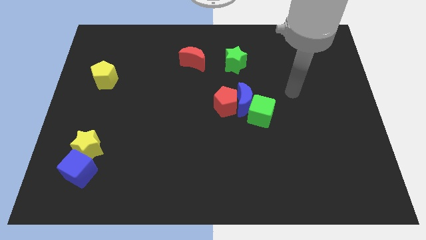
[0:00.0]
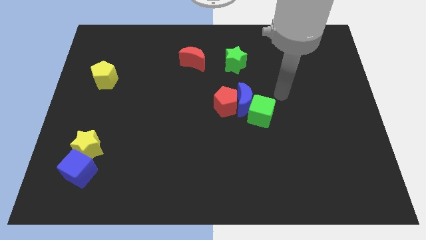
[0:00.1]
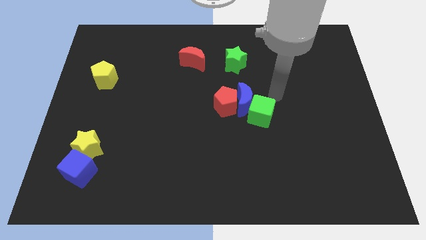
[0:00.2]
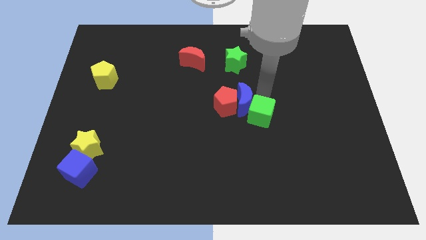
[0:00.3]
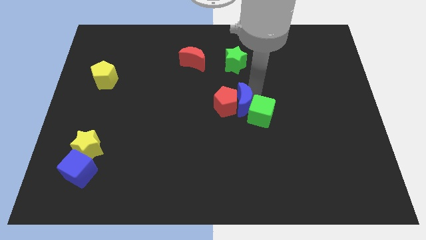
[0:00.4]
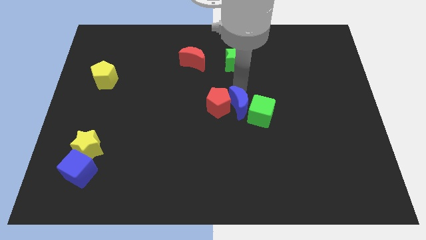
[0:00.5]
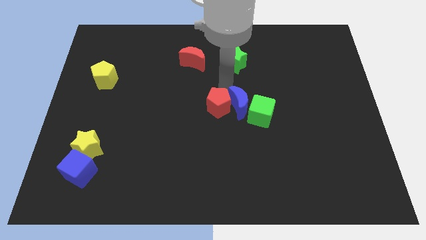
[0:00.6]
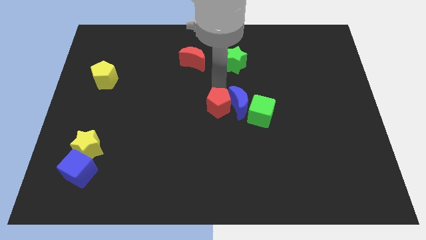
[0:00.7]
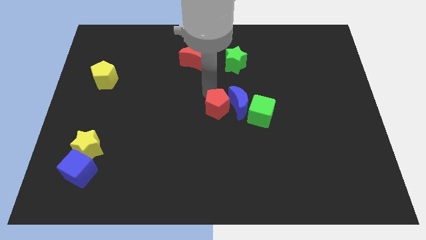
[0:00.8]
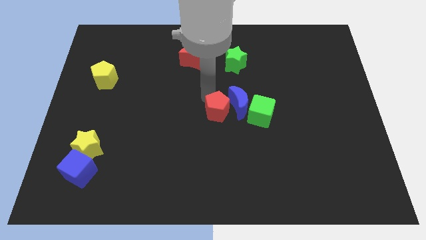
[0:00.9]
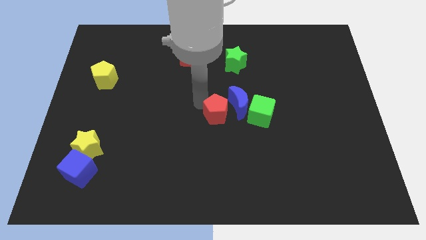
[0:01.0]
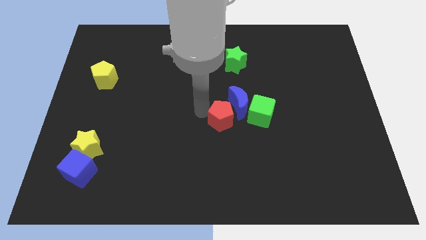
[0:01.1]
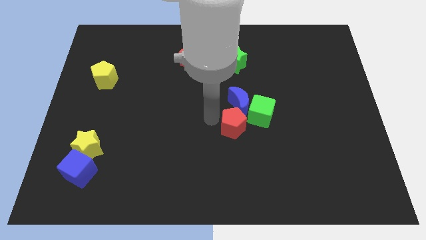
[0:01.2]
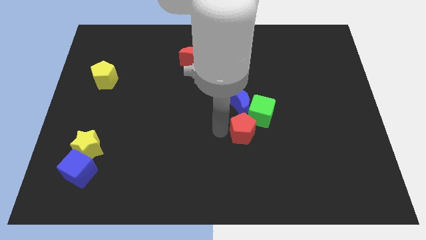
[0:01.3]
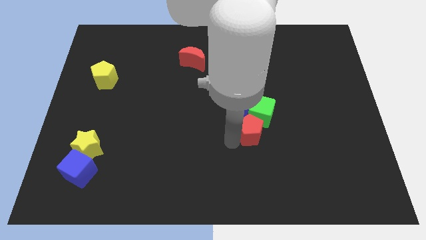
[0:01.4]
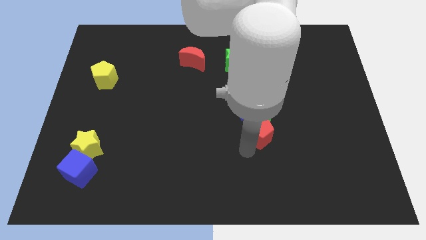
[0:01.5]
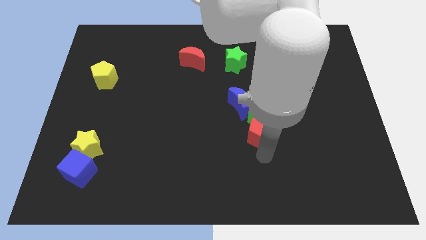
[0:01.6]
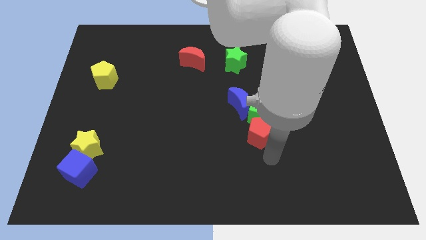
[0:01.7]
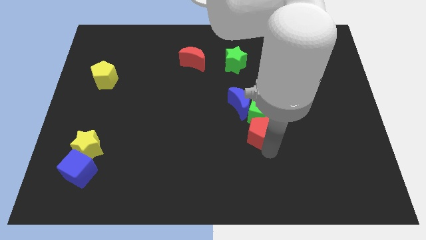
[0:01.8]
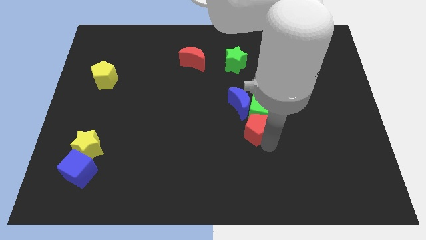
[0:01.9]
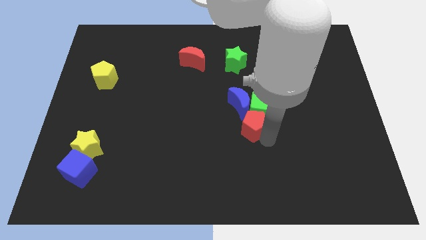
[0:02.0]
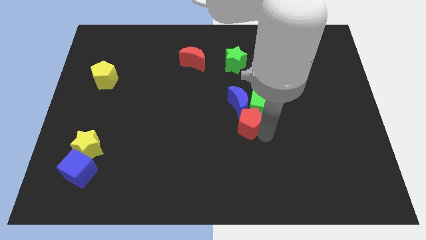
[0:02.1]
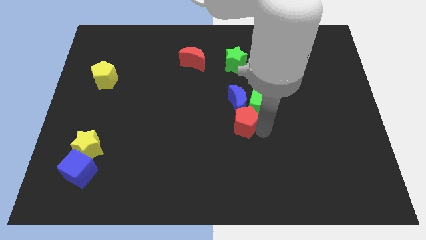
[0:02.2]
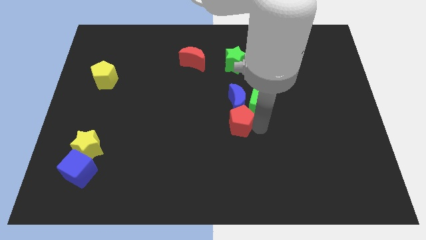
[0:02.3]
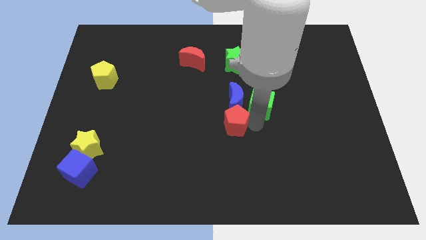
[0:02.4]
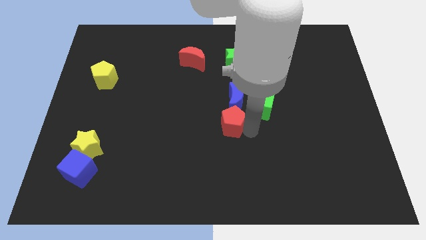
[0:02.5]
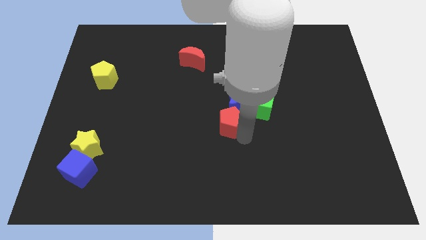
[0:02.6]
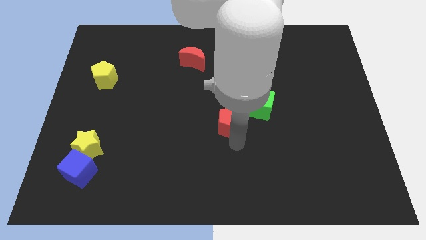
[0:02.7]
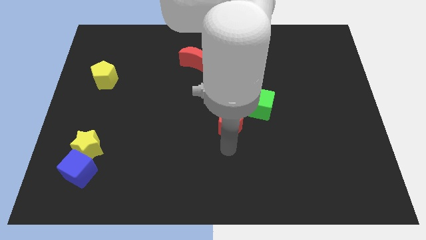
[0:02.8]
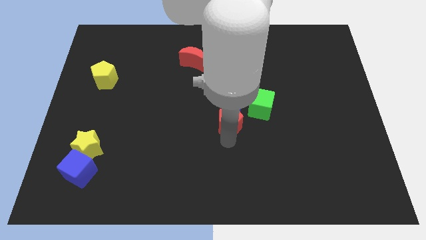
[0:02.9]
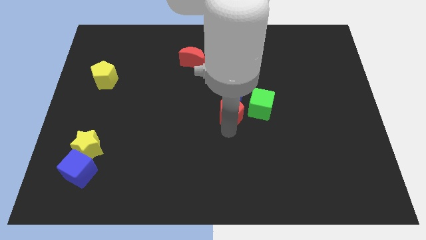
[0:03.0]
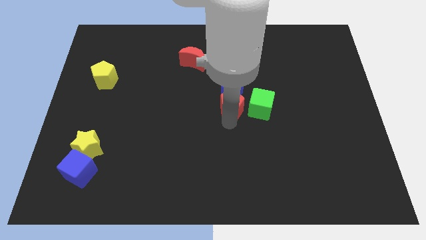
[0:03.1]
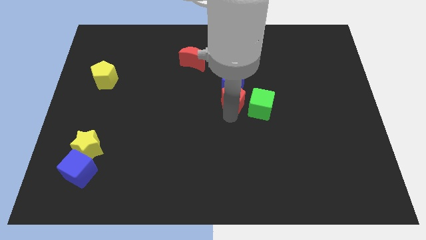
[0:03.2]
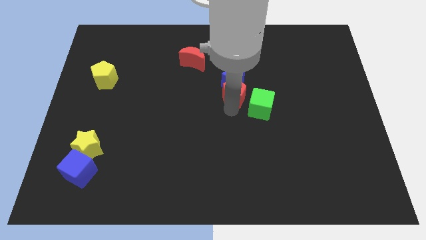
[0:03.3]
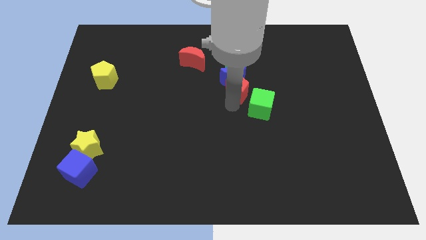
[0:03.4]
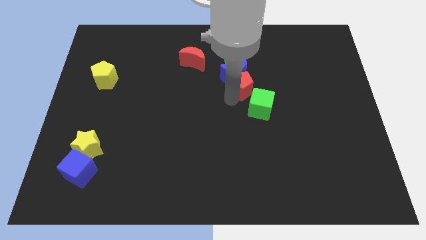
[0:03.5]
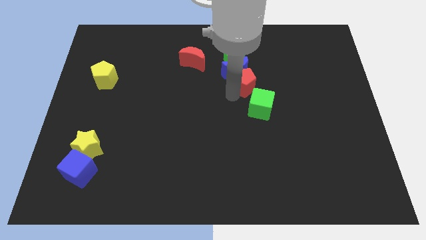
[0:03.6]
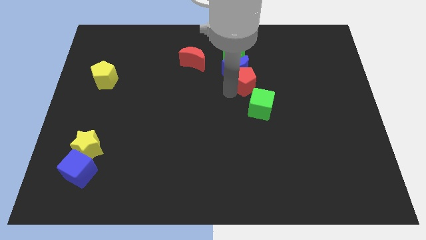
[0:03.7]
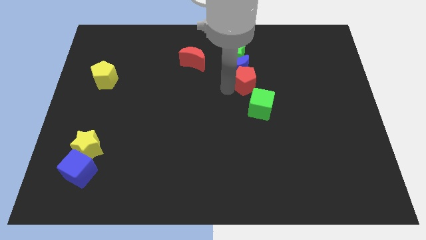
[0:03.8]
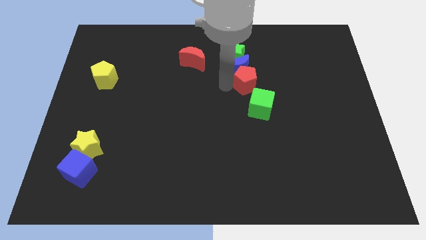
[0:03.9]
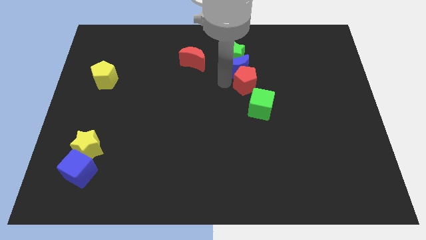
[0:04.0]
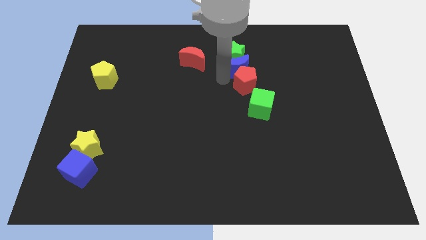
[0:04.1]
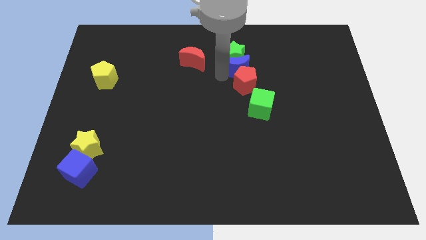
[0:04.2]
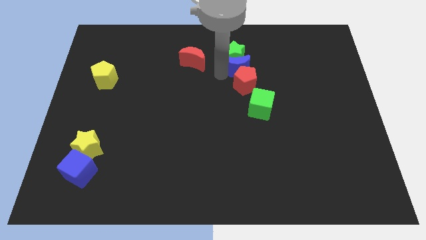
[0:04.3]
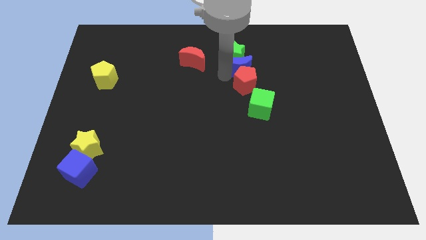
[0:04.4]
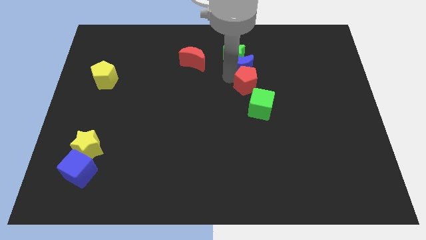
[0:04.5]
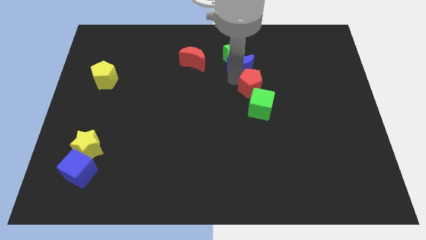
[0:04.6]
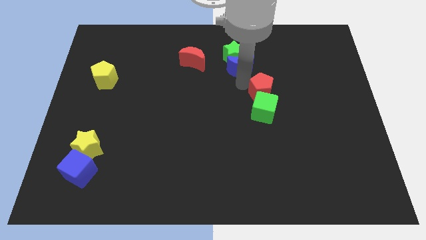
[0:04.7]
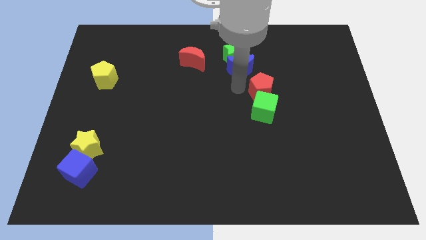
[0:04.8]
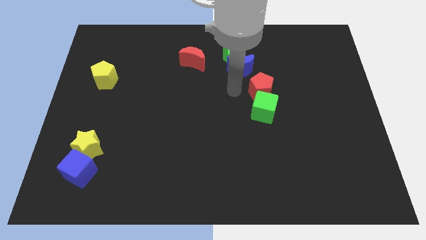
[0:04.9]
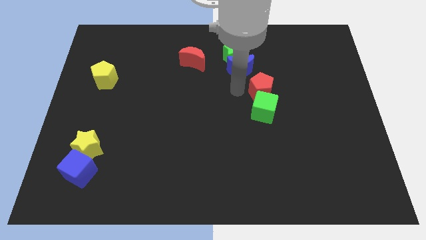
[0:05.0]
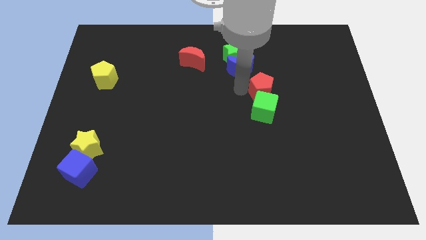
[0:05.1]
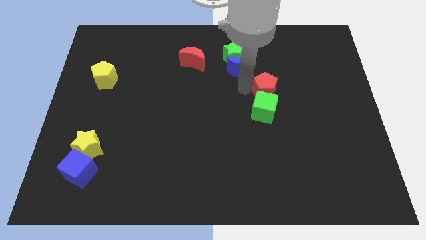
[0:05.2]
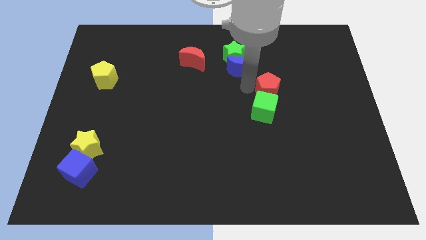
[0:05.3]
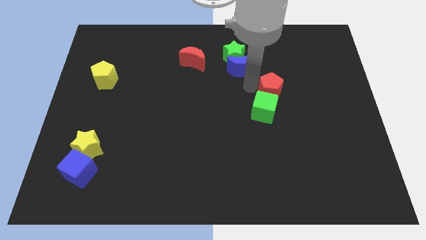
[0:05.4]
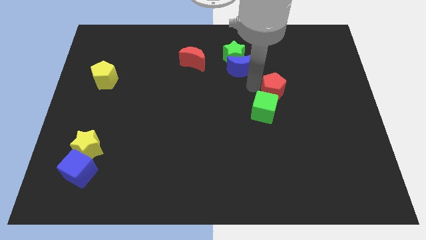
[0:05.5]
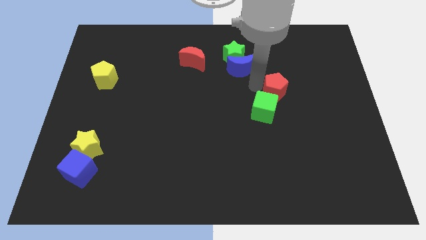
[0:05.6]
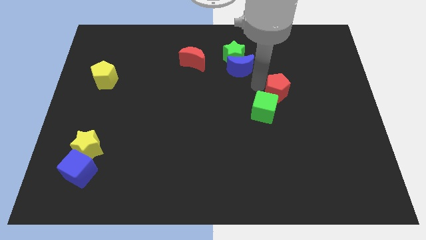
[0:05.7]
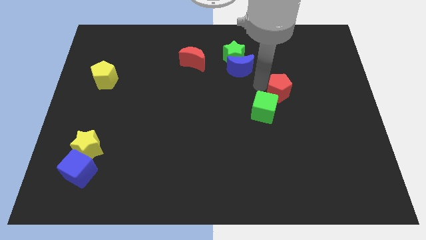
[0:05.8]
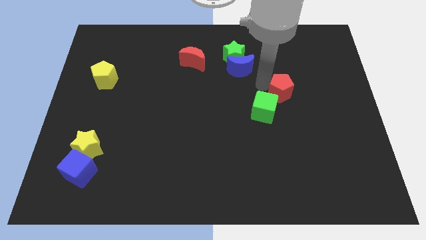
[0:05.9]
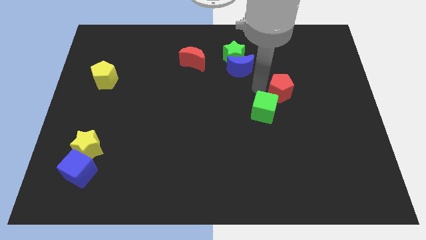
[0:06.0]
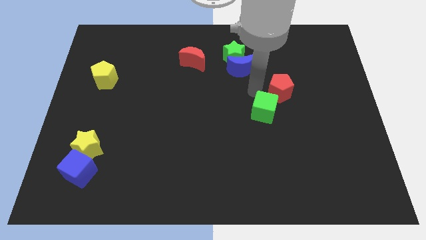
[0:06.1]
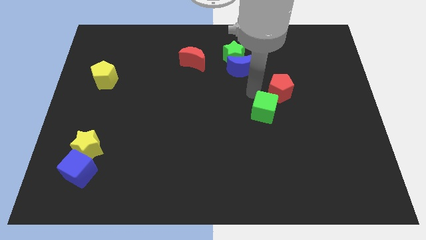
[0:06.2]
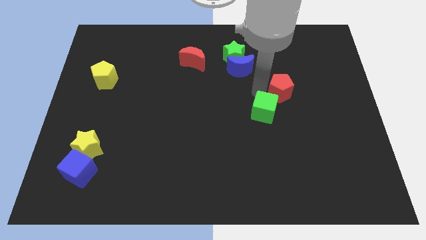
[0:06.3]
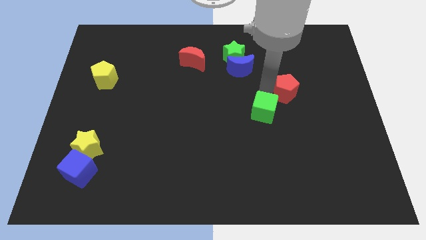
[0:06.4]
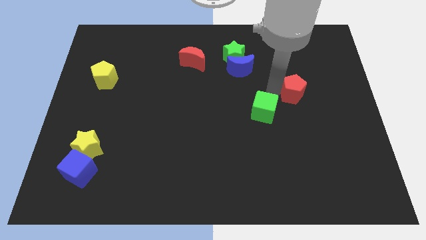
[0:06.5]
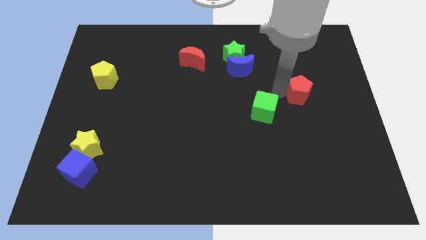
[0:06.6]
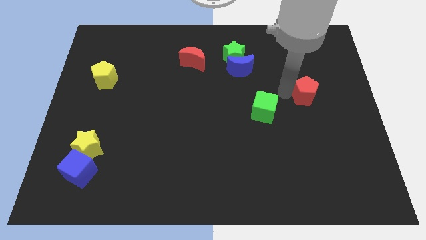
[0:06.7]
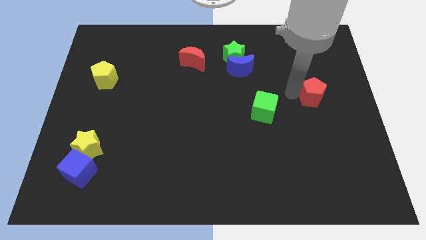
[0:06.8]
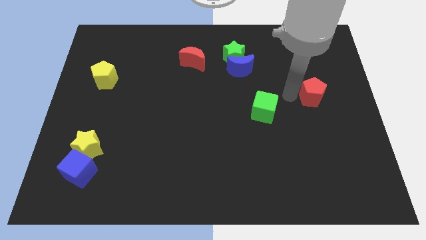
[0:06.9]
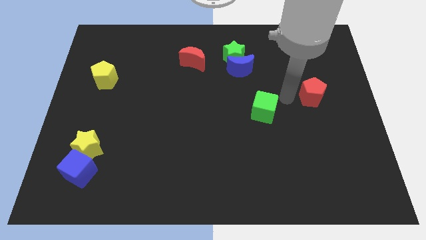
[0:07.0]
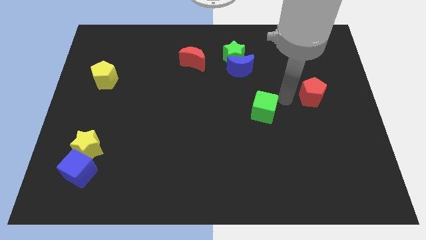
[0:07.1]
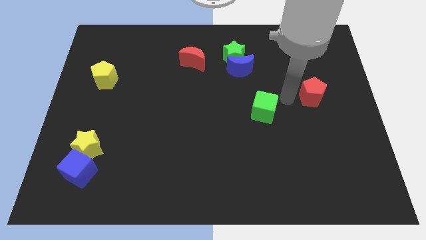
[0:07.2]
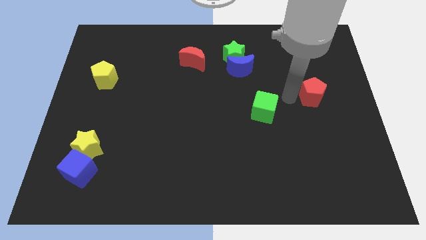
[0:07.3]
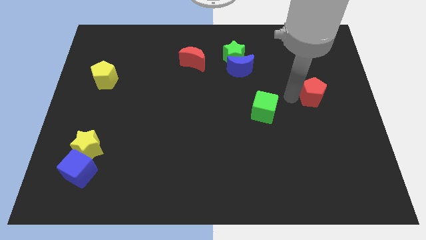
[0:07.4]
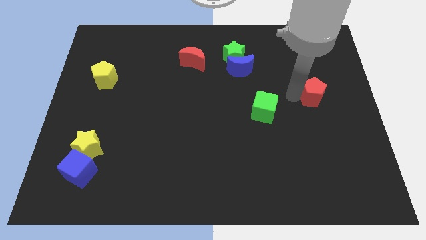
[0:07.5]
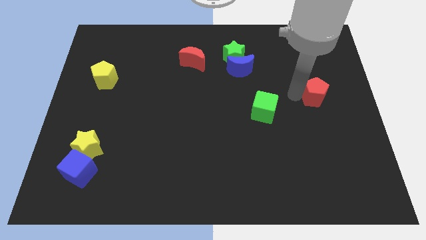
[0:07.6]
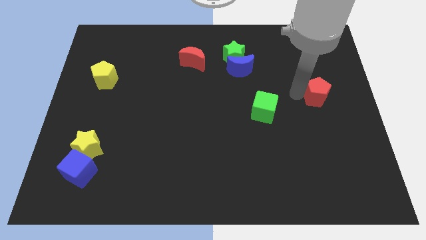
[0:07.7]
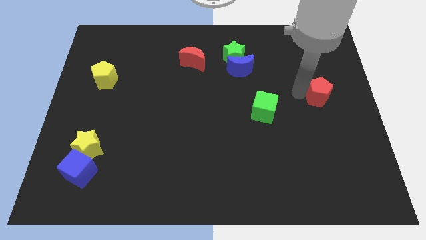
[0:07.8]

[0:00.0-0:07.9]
put the red pentagon to the center right
